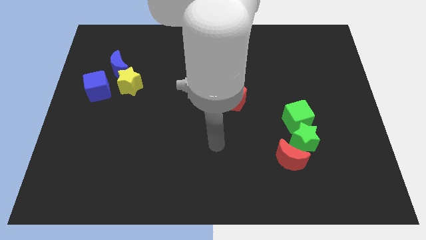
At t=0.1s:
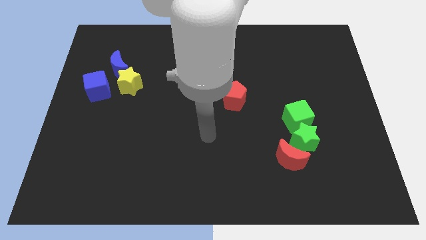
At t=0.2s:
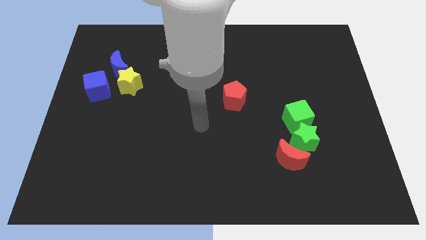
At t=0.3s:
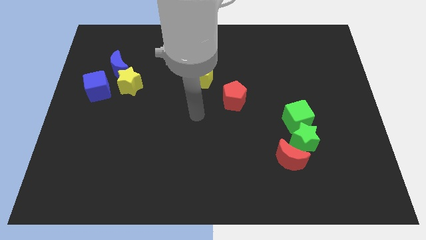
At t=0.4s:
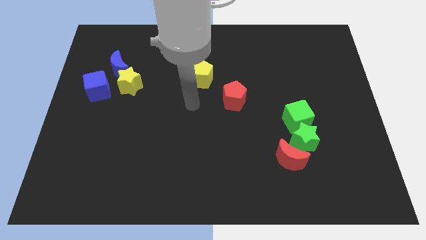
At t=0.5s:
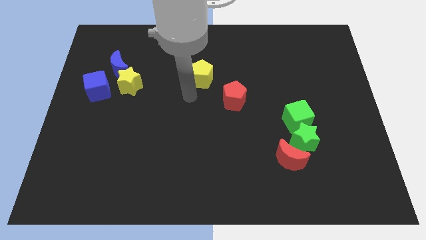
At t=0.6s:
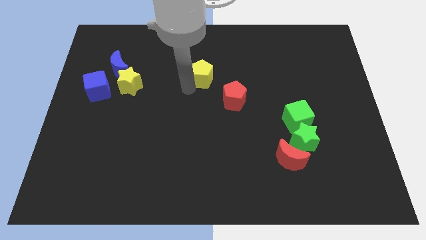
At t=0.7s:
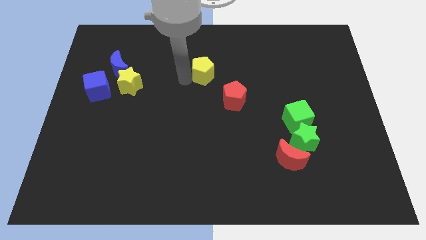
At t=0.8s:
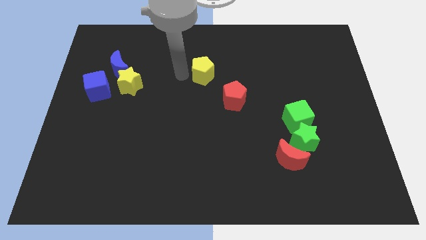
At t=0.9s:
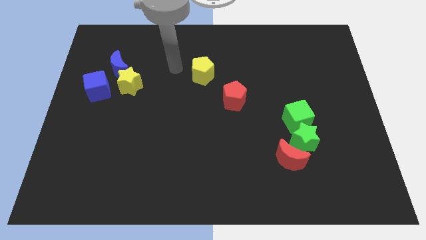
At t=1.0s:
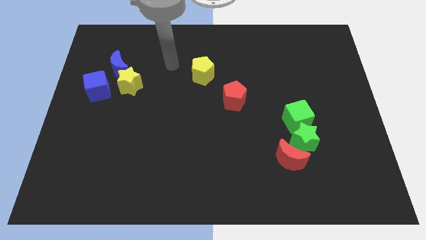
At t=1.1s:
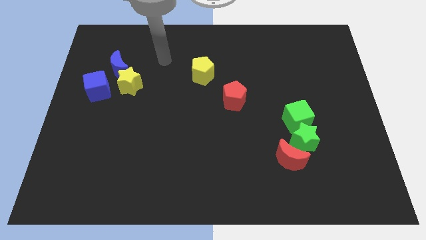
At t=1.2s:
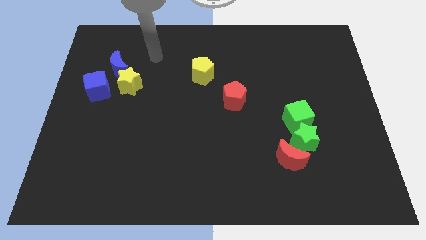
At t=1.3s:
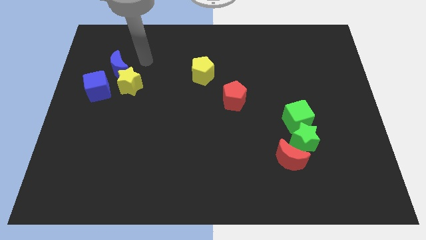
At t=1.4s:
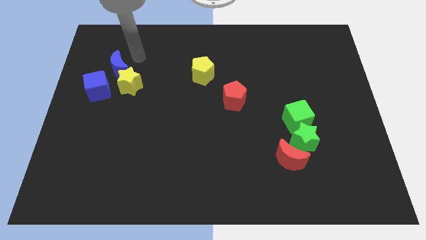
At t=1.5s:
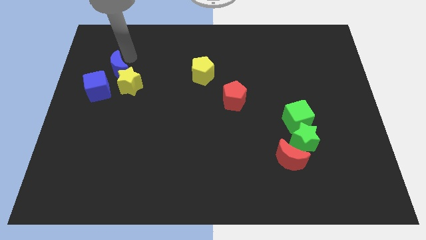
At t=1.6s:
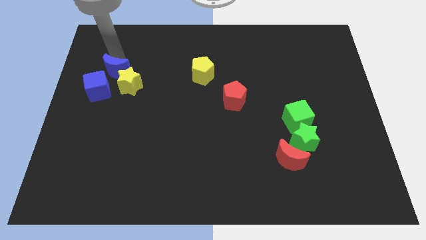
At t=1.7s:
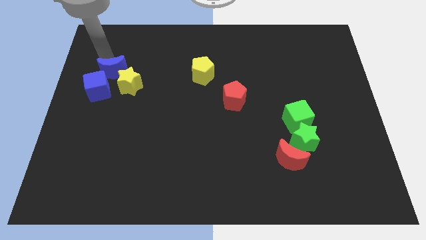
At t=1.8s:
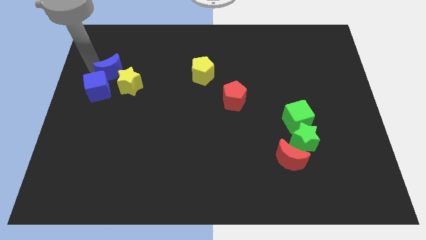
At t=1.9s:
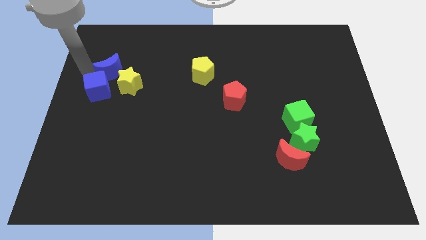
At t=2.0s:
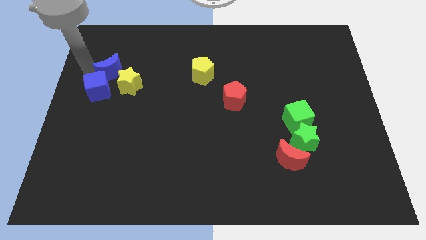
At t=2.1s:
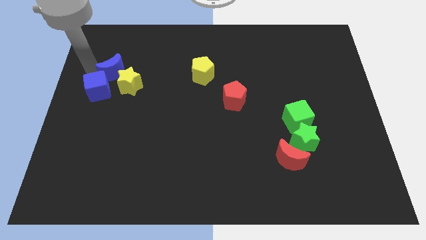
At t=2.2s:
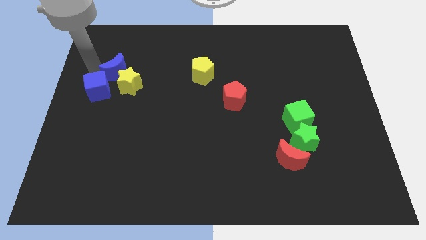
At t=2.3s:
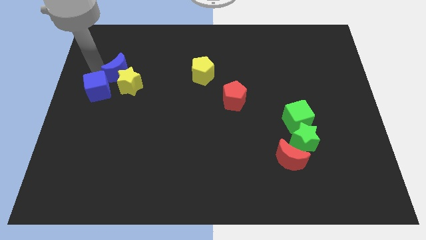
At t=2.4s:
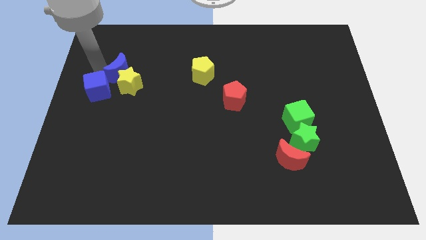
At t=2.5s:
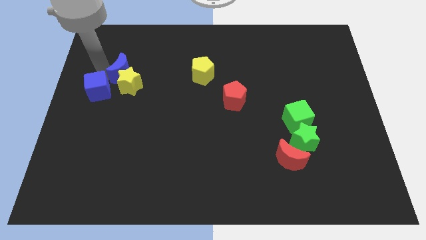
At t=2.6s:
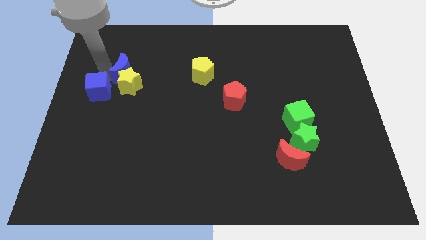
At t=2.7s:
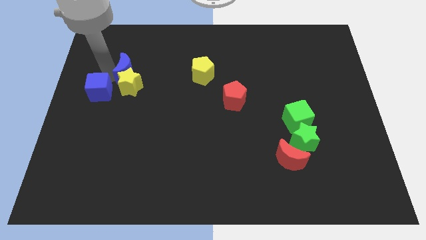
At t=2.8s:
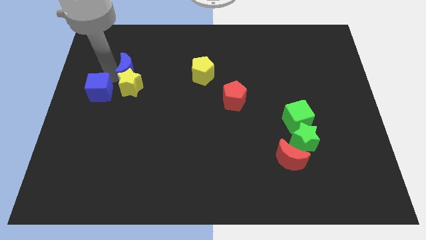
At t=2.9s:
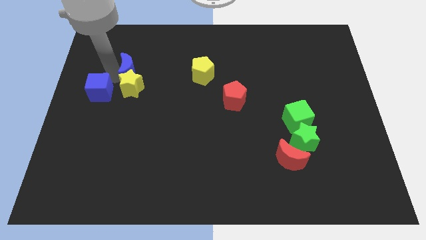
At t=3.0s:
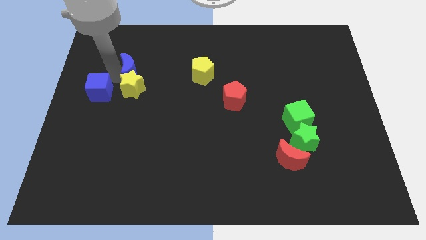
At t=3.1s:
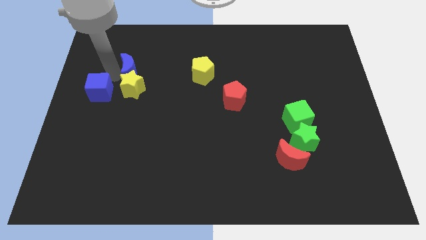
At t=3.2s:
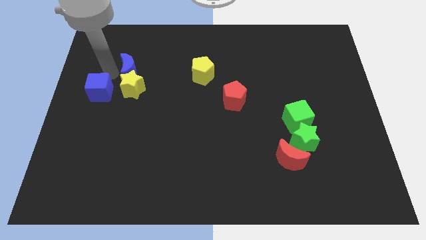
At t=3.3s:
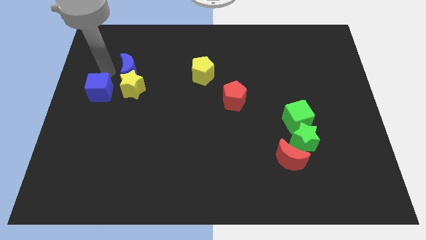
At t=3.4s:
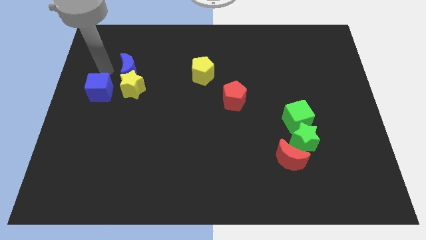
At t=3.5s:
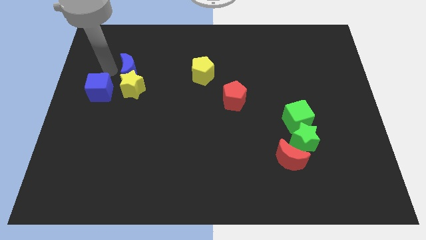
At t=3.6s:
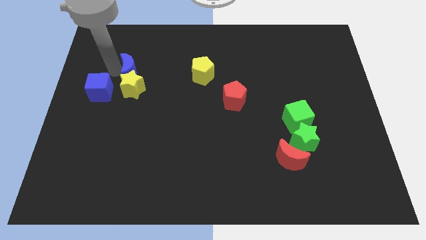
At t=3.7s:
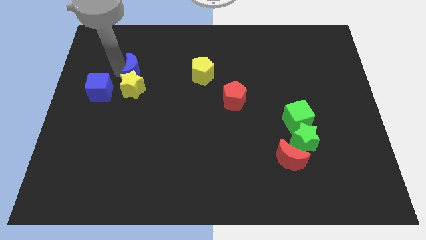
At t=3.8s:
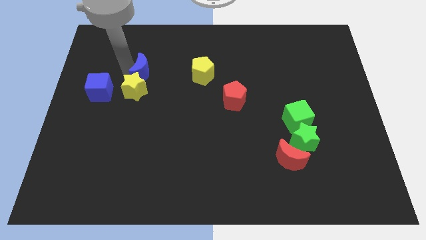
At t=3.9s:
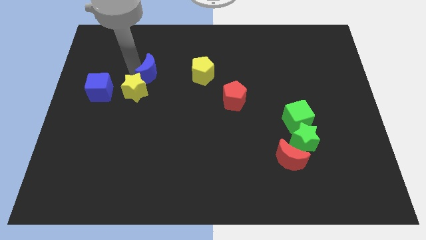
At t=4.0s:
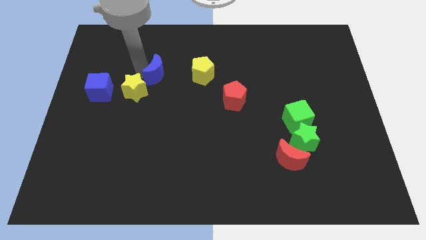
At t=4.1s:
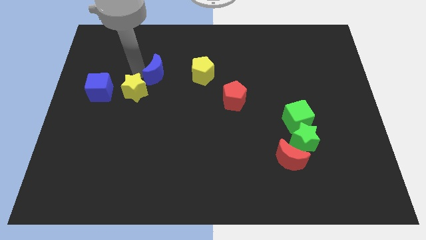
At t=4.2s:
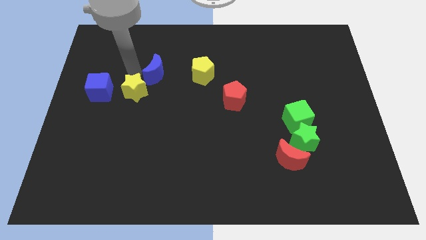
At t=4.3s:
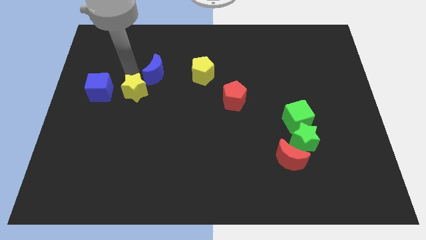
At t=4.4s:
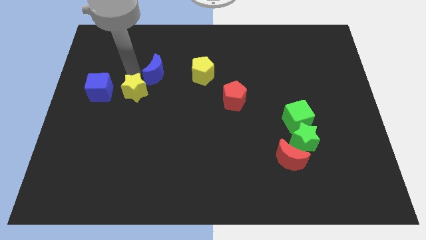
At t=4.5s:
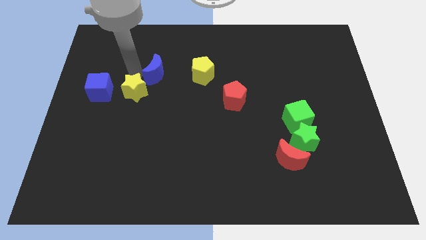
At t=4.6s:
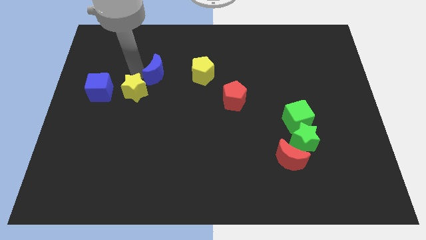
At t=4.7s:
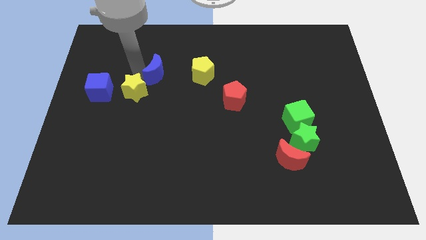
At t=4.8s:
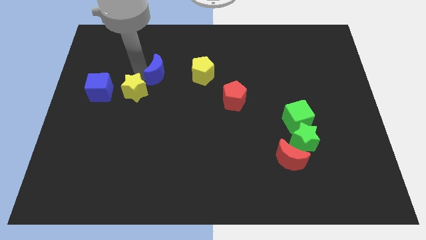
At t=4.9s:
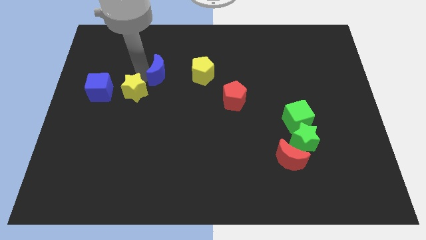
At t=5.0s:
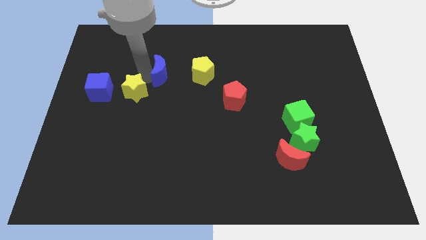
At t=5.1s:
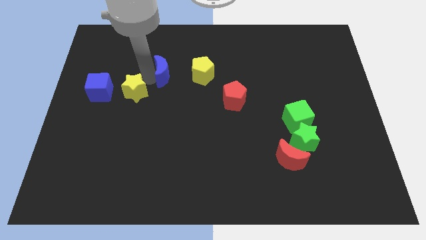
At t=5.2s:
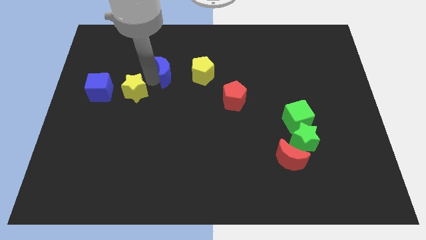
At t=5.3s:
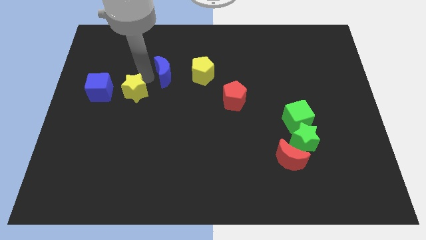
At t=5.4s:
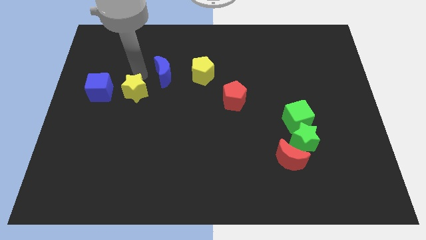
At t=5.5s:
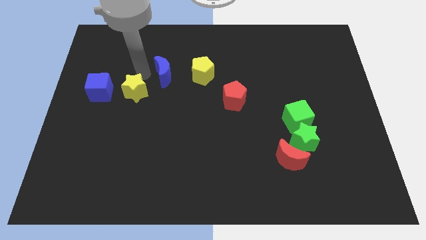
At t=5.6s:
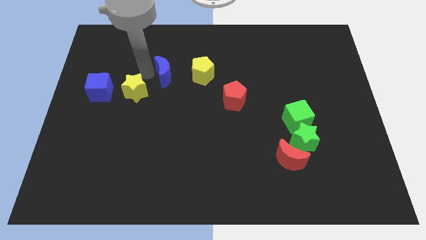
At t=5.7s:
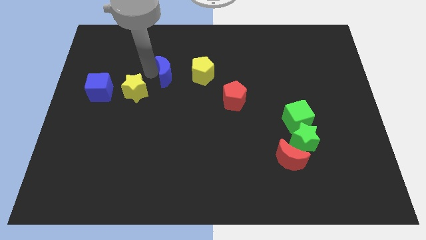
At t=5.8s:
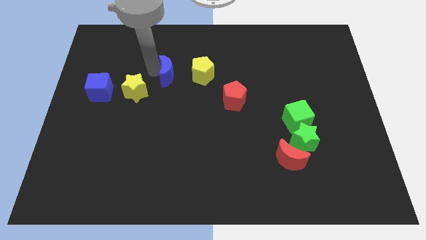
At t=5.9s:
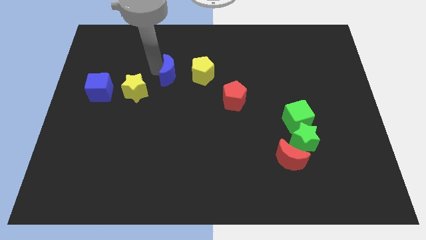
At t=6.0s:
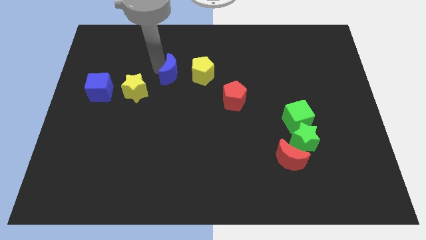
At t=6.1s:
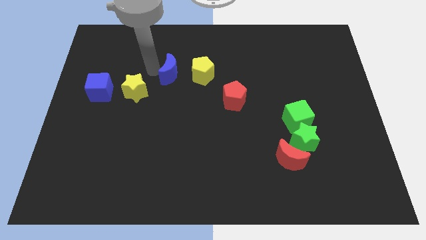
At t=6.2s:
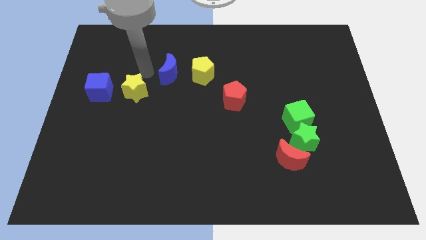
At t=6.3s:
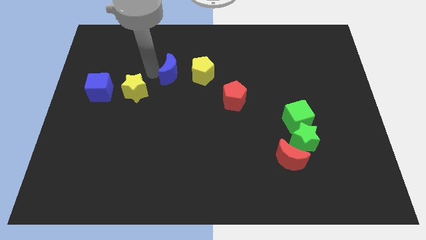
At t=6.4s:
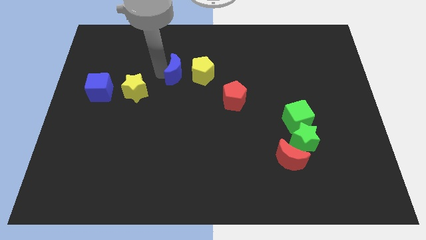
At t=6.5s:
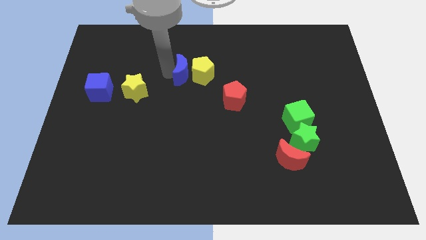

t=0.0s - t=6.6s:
slide the blue moon close to the yellow pentagon
